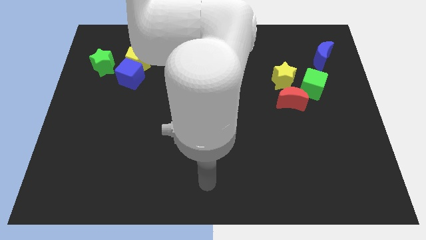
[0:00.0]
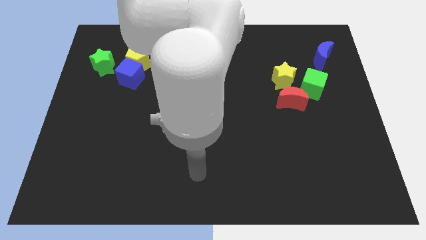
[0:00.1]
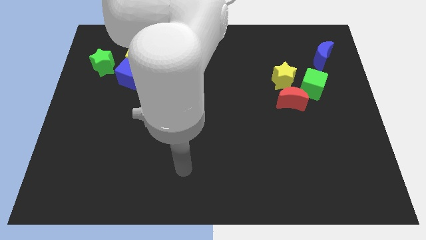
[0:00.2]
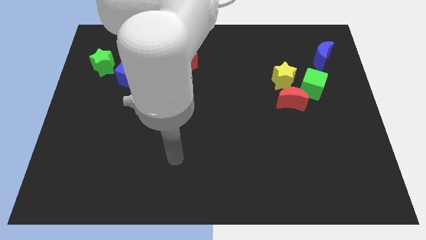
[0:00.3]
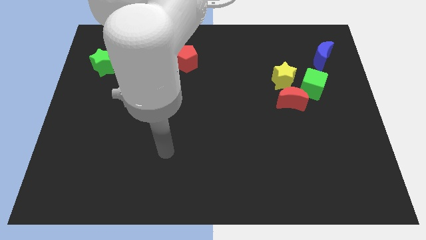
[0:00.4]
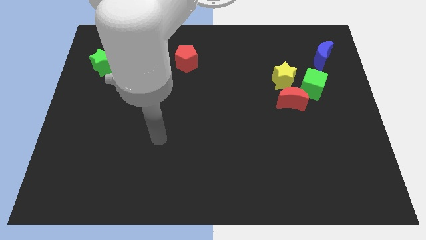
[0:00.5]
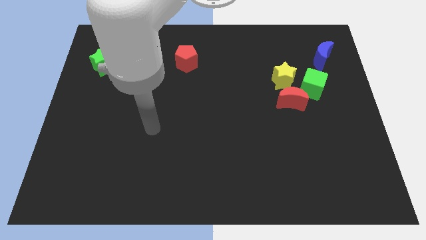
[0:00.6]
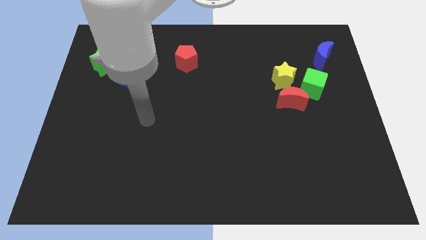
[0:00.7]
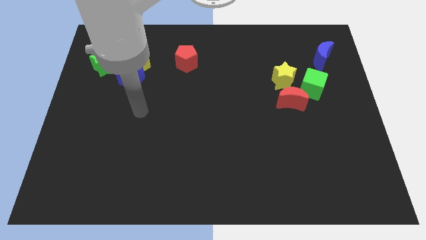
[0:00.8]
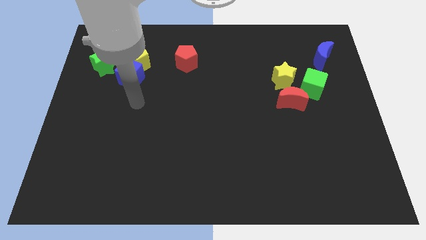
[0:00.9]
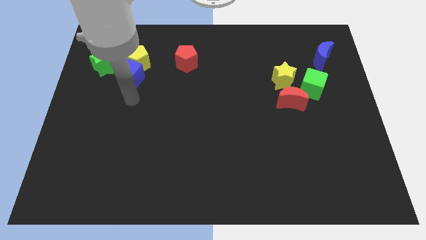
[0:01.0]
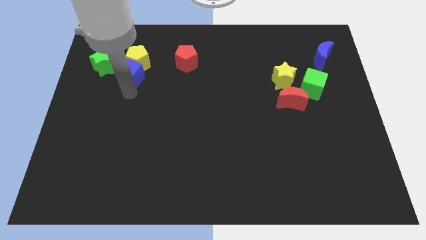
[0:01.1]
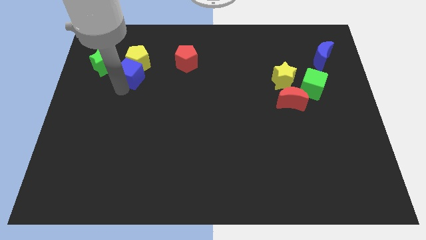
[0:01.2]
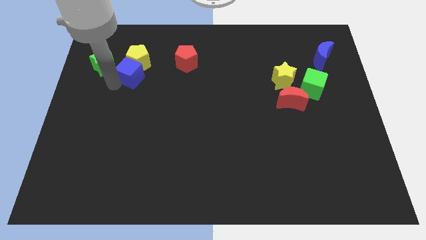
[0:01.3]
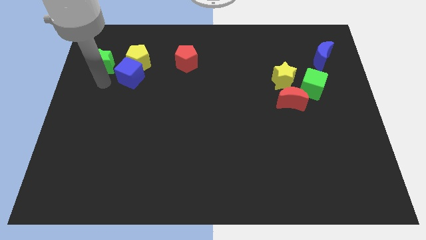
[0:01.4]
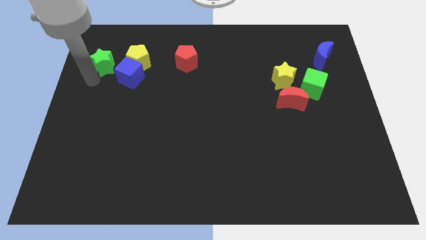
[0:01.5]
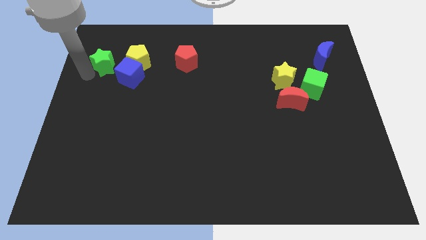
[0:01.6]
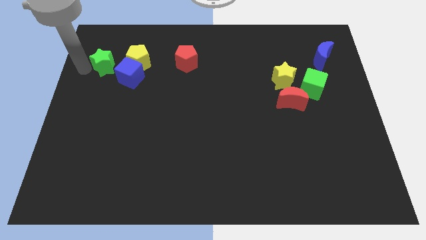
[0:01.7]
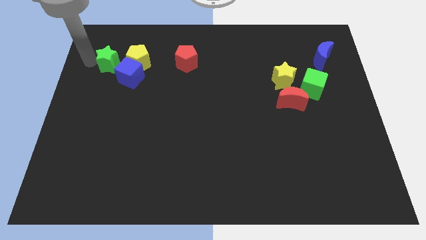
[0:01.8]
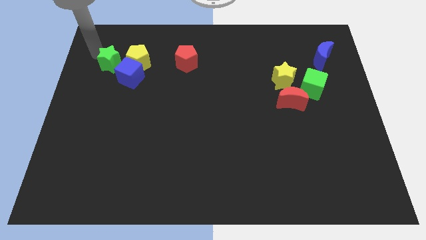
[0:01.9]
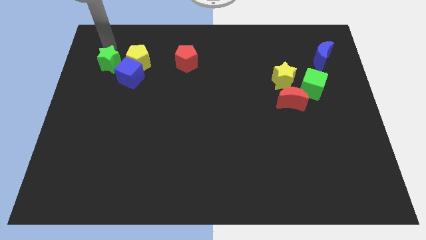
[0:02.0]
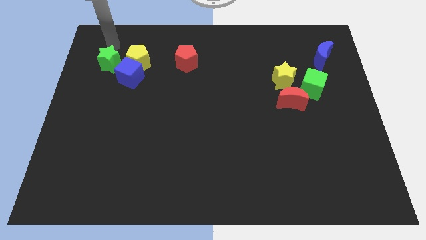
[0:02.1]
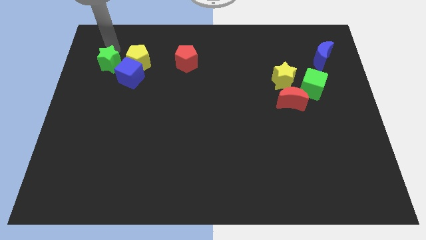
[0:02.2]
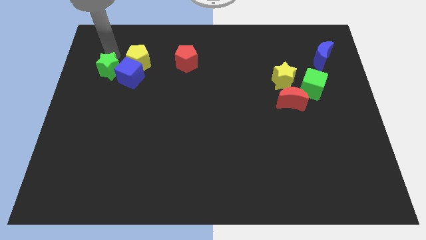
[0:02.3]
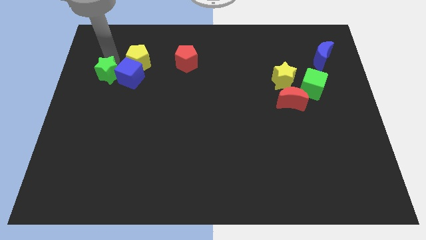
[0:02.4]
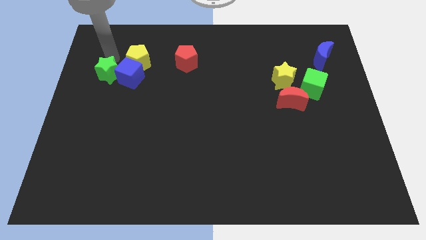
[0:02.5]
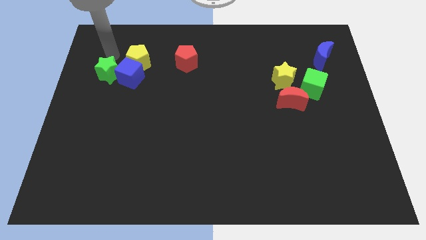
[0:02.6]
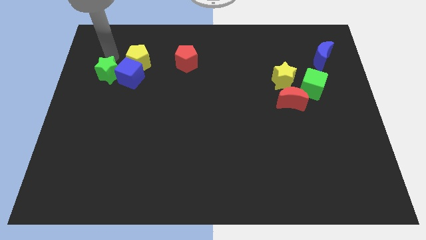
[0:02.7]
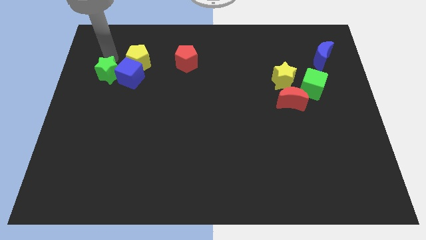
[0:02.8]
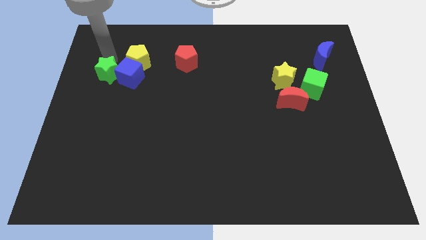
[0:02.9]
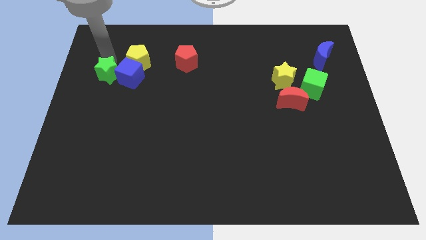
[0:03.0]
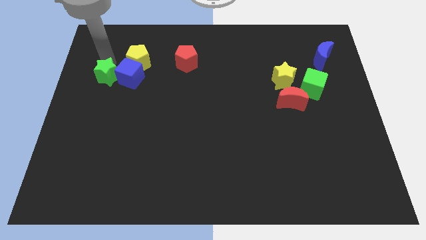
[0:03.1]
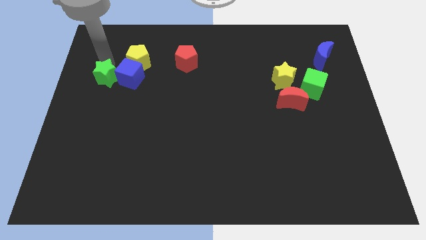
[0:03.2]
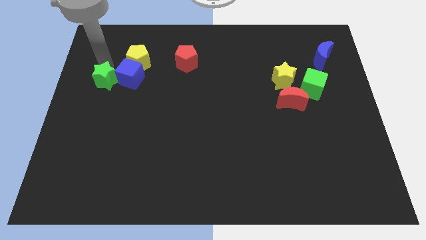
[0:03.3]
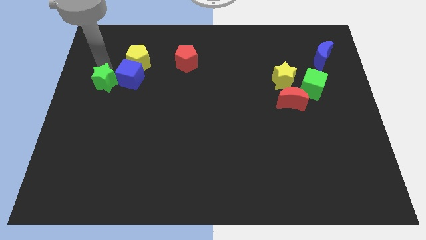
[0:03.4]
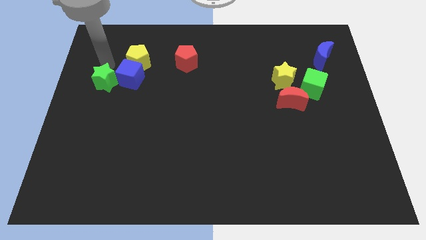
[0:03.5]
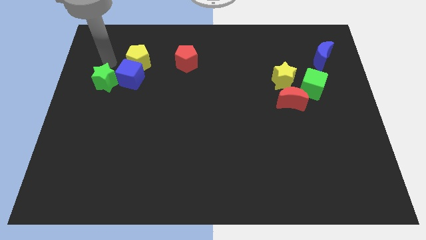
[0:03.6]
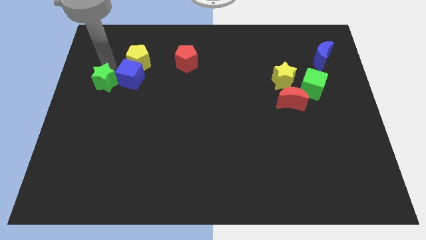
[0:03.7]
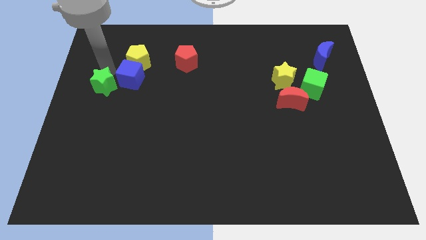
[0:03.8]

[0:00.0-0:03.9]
push the green star a bit downwards

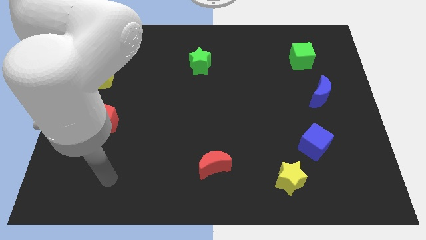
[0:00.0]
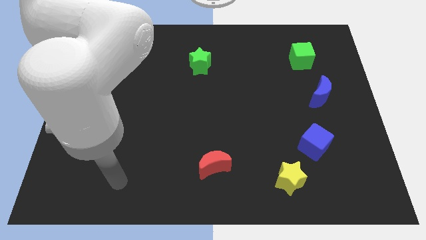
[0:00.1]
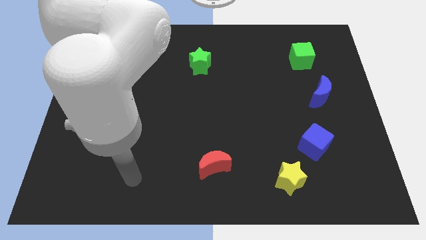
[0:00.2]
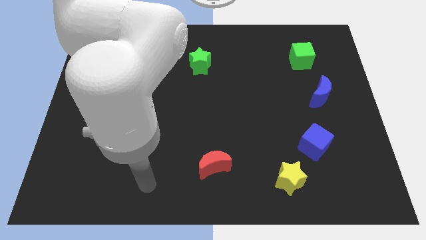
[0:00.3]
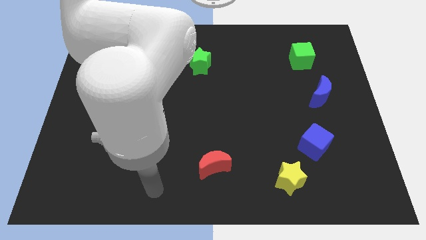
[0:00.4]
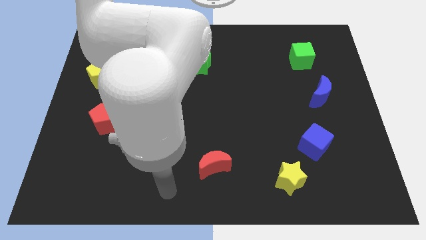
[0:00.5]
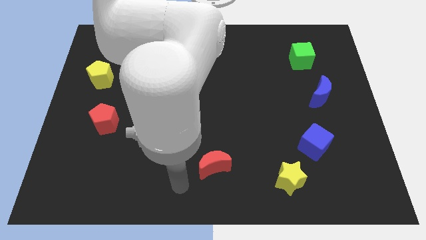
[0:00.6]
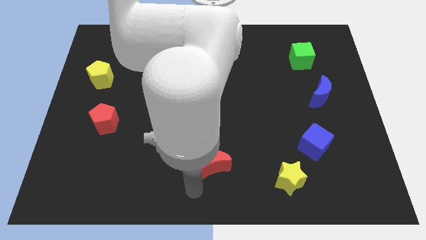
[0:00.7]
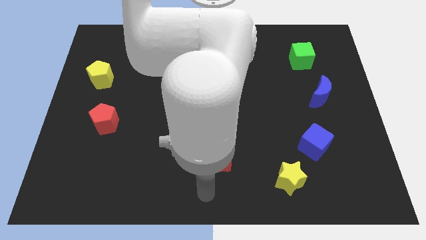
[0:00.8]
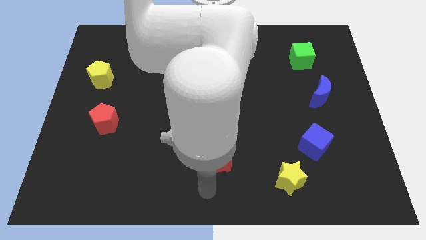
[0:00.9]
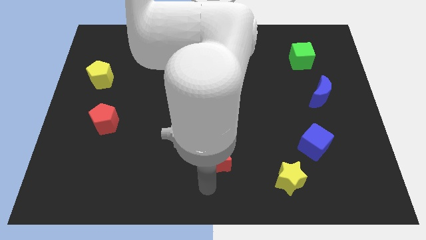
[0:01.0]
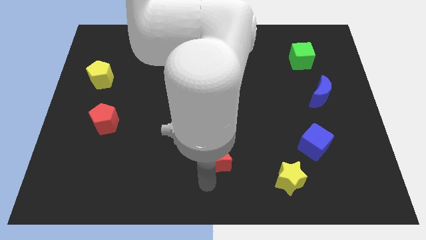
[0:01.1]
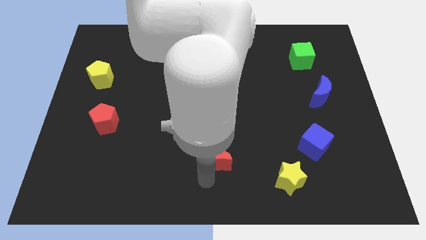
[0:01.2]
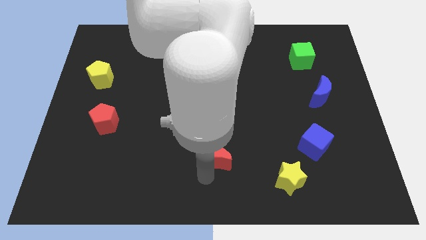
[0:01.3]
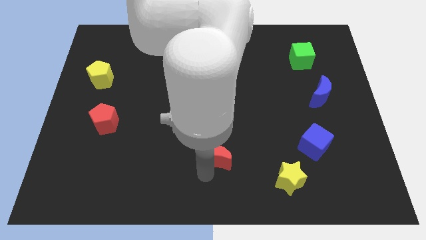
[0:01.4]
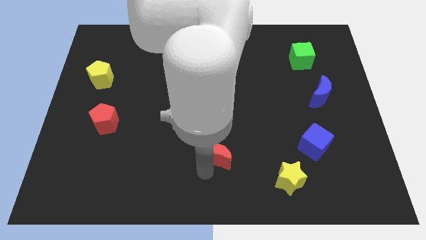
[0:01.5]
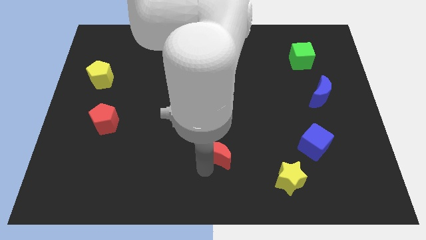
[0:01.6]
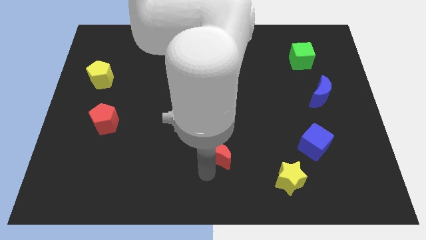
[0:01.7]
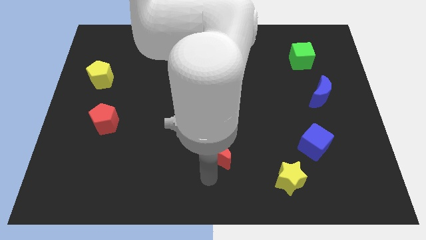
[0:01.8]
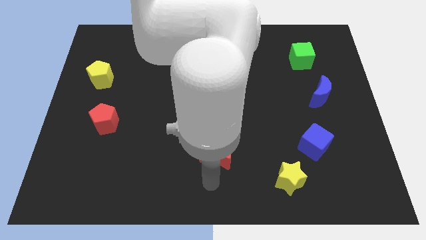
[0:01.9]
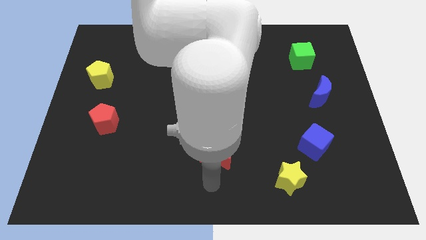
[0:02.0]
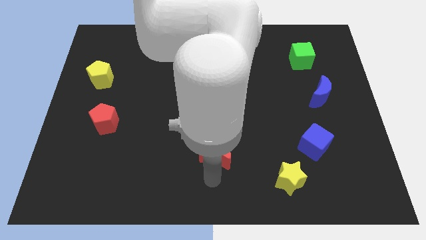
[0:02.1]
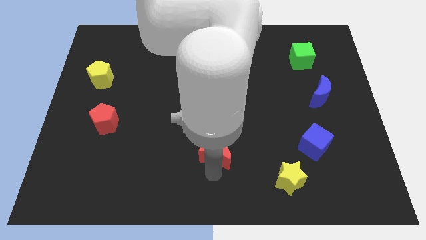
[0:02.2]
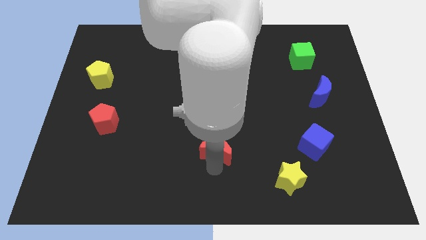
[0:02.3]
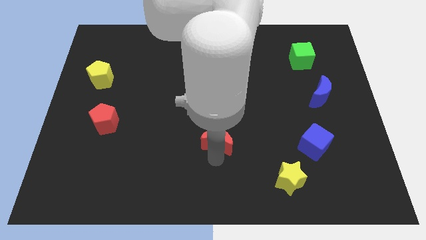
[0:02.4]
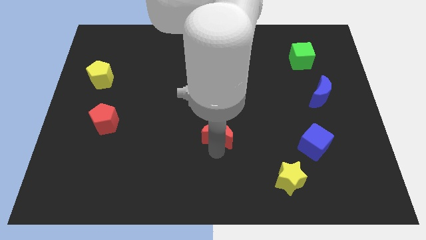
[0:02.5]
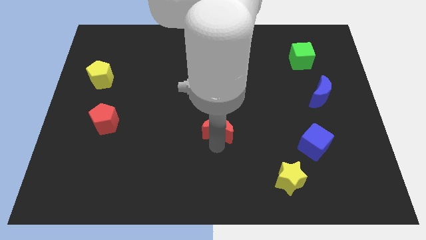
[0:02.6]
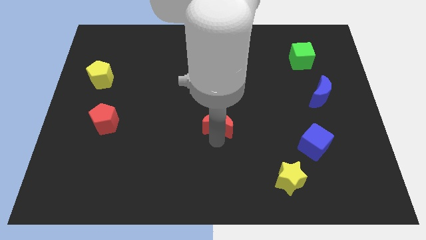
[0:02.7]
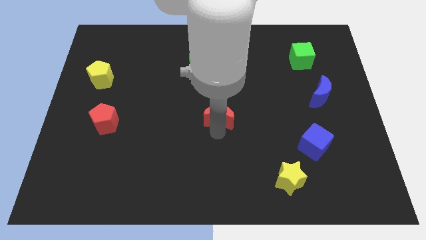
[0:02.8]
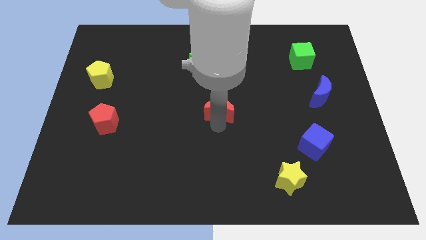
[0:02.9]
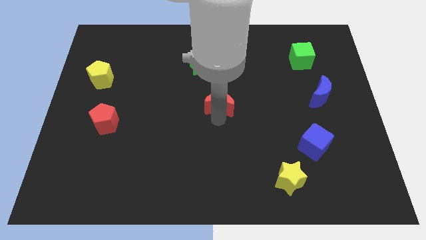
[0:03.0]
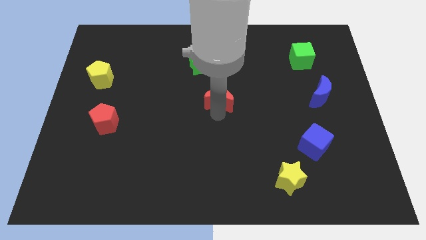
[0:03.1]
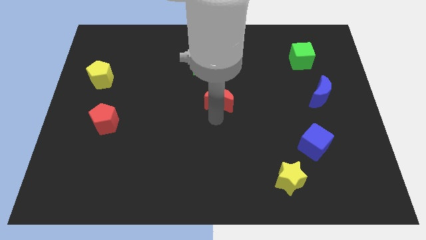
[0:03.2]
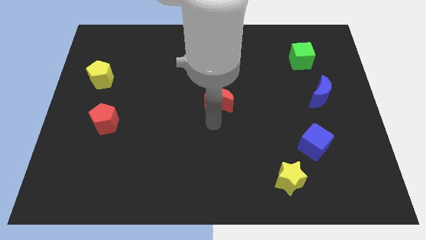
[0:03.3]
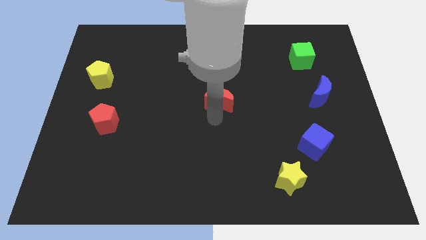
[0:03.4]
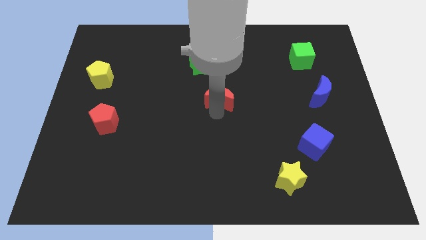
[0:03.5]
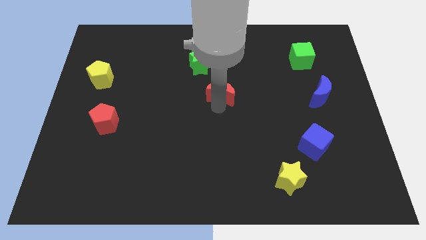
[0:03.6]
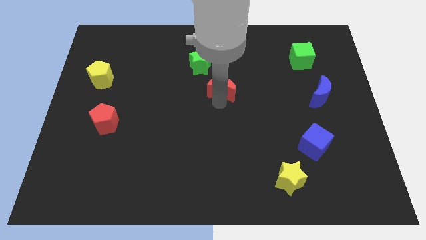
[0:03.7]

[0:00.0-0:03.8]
move the red moon up
